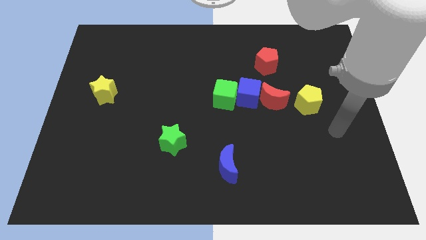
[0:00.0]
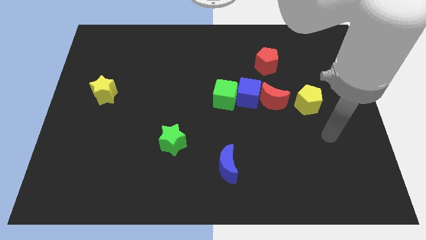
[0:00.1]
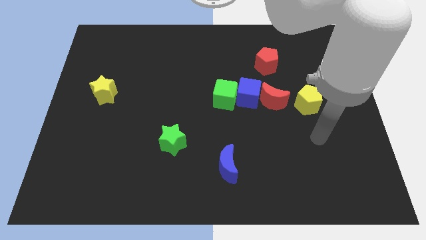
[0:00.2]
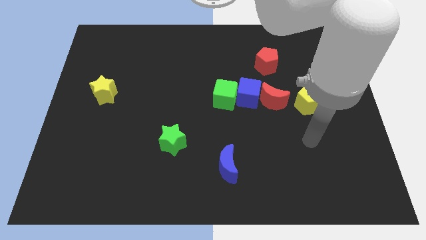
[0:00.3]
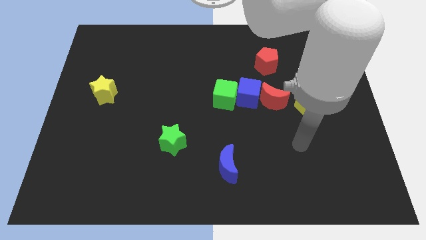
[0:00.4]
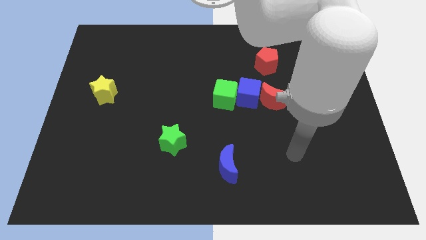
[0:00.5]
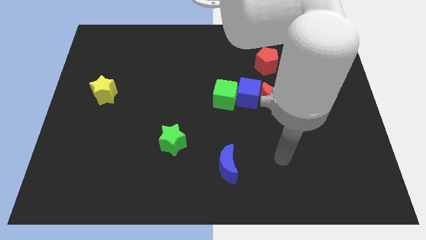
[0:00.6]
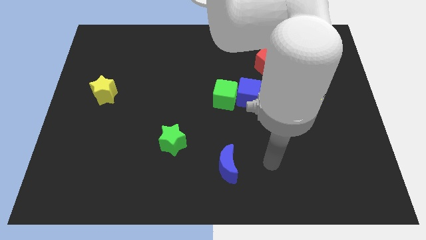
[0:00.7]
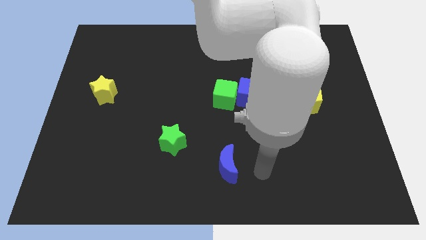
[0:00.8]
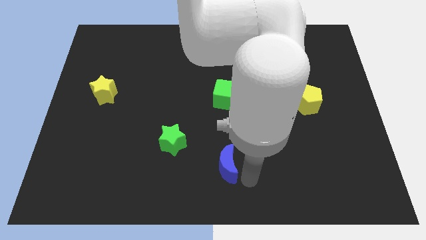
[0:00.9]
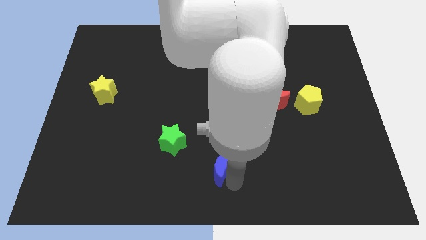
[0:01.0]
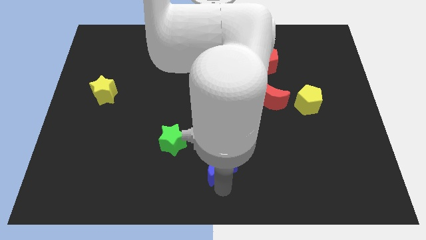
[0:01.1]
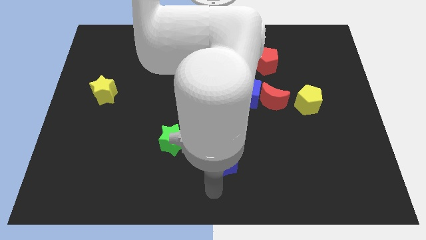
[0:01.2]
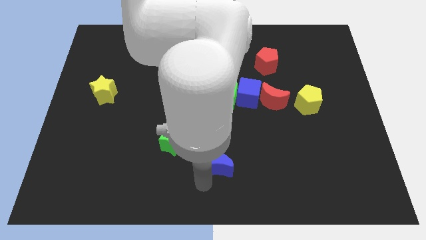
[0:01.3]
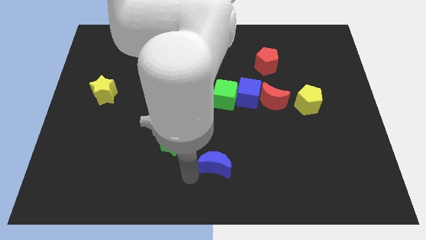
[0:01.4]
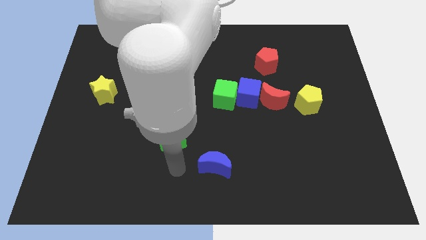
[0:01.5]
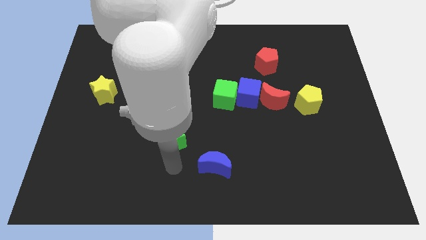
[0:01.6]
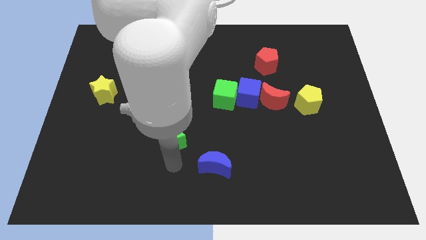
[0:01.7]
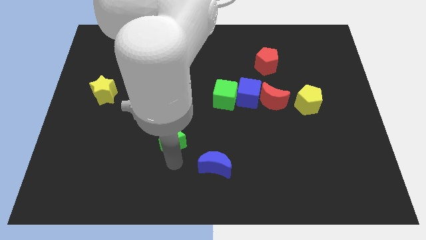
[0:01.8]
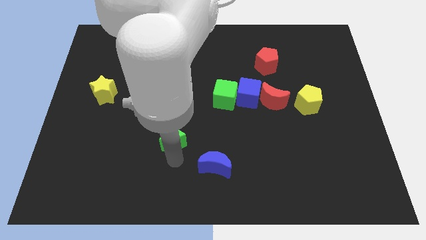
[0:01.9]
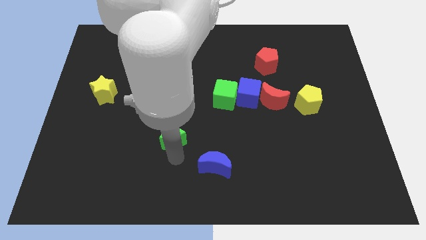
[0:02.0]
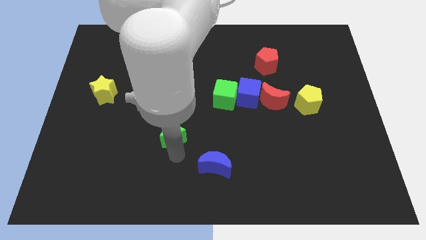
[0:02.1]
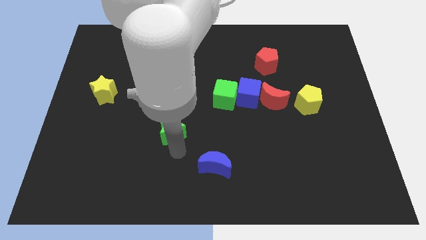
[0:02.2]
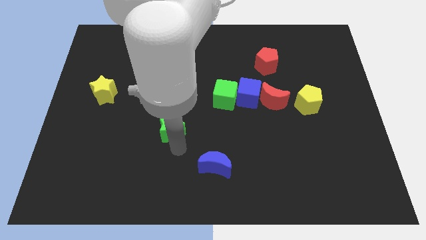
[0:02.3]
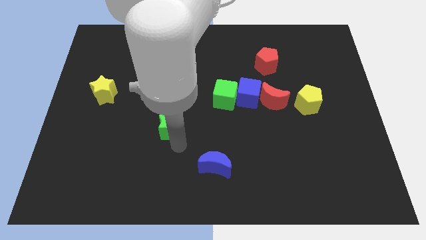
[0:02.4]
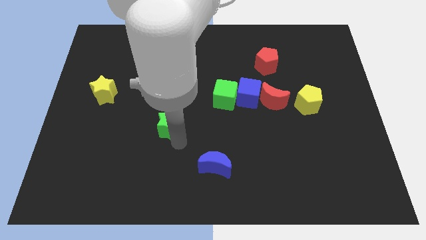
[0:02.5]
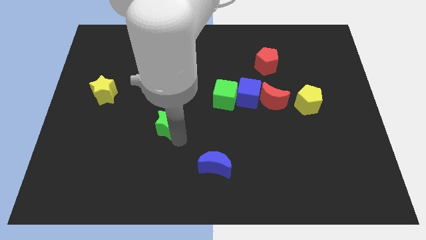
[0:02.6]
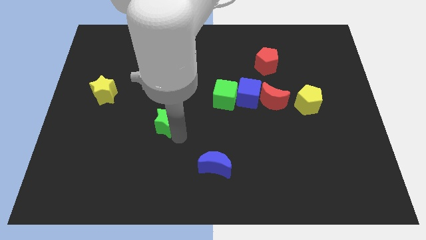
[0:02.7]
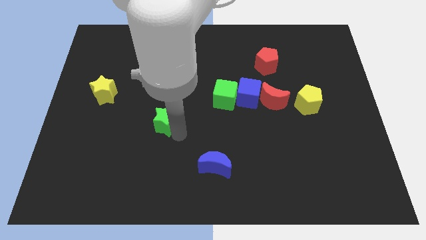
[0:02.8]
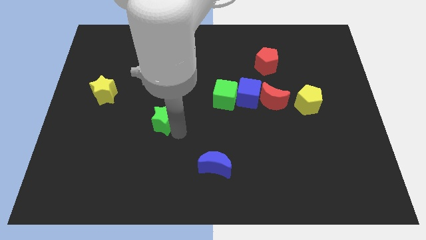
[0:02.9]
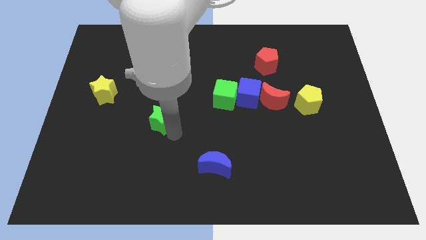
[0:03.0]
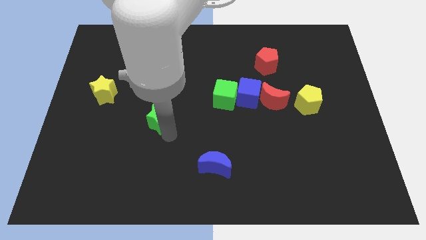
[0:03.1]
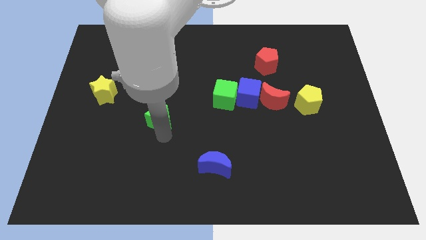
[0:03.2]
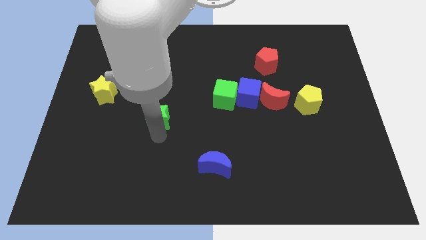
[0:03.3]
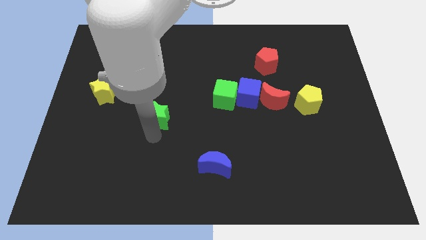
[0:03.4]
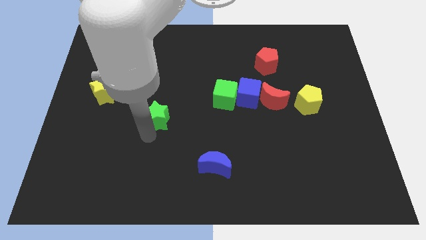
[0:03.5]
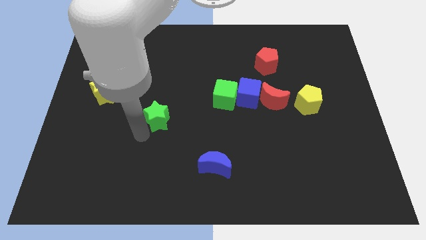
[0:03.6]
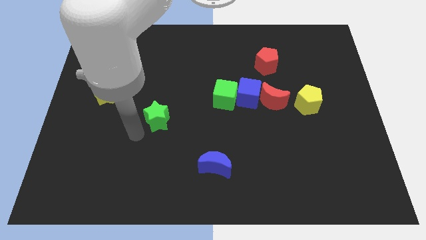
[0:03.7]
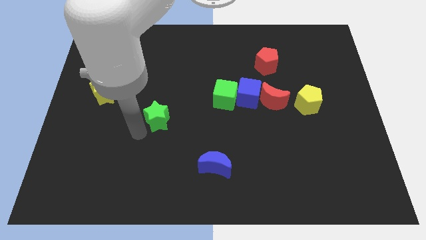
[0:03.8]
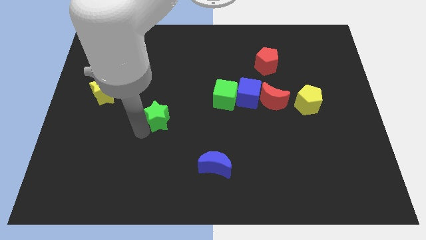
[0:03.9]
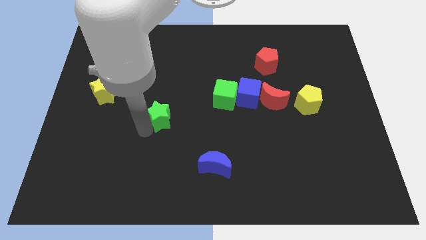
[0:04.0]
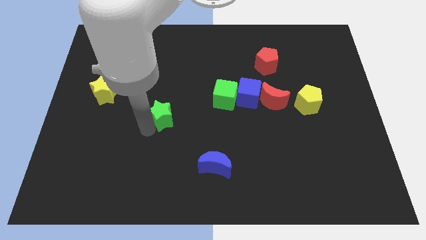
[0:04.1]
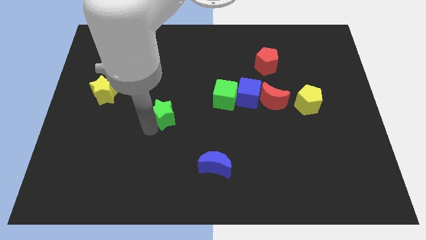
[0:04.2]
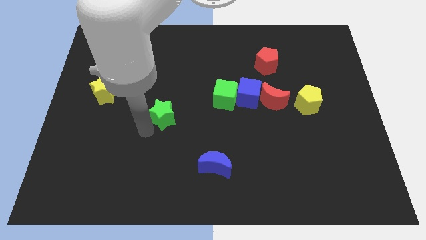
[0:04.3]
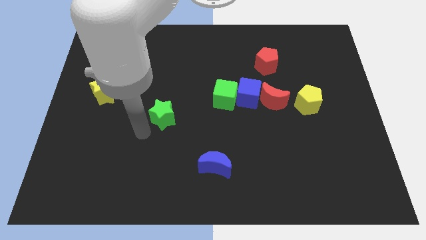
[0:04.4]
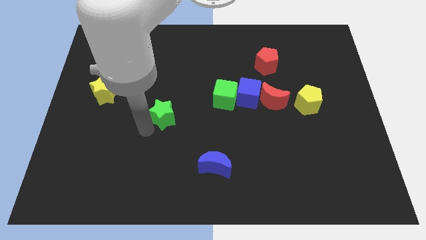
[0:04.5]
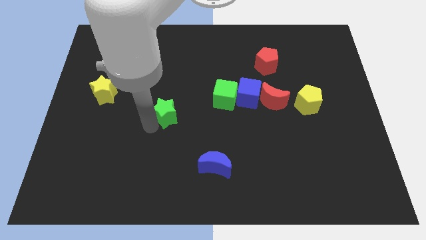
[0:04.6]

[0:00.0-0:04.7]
slightly move the green star up

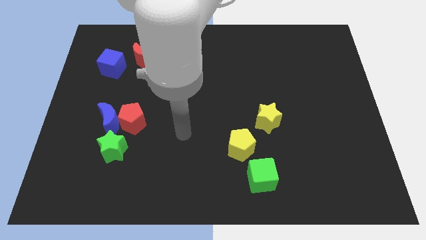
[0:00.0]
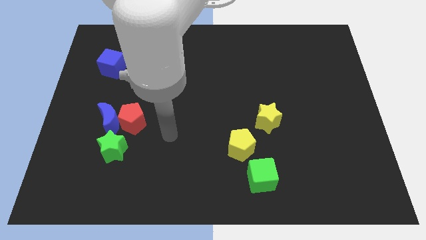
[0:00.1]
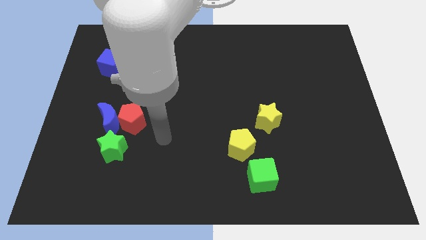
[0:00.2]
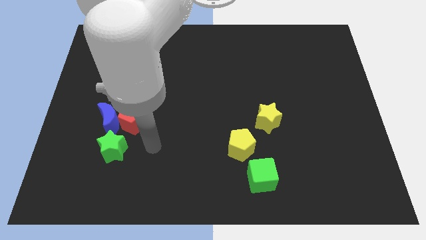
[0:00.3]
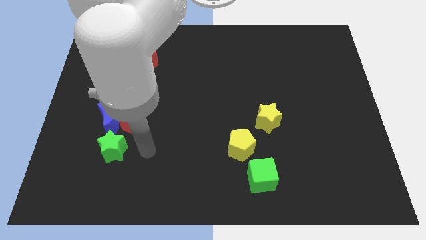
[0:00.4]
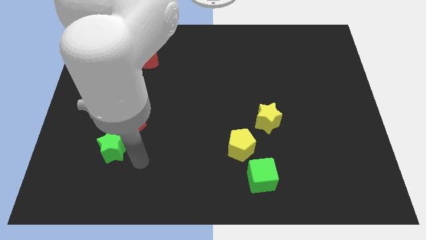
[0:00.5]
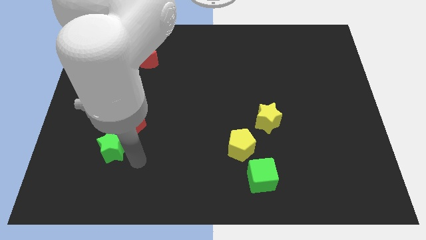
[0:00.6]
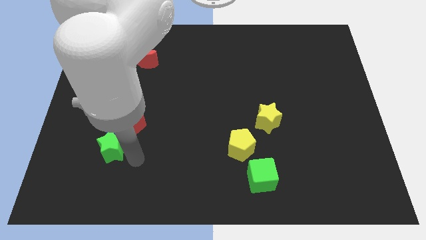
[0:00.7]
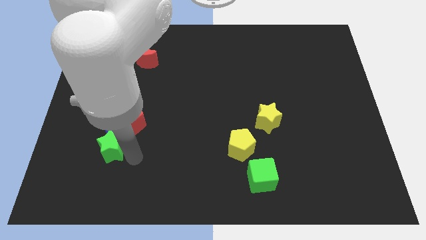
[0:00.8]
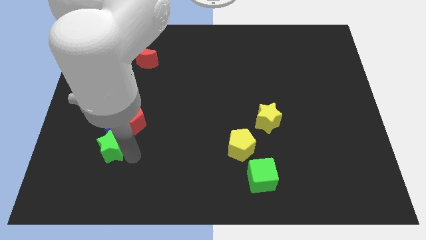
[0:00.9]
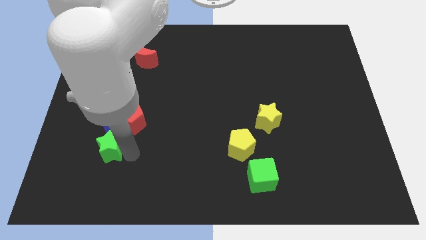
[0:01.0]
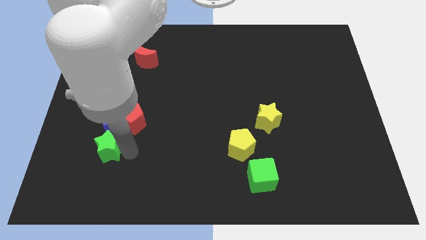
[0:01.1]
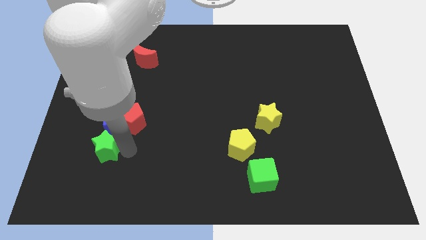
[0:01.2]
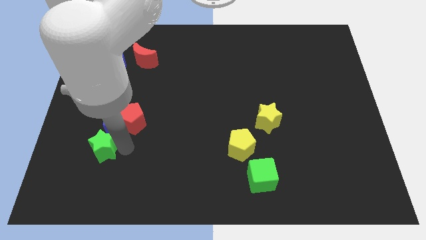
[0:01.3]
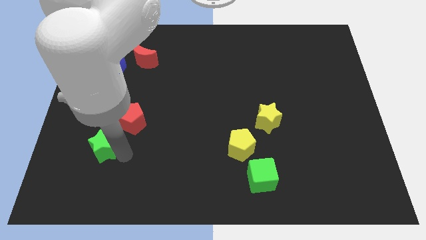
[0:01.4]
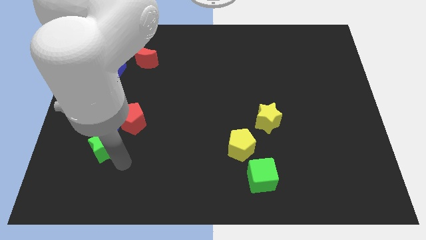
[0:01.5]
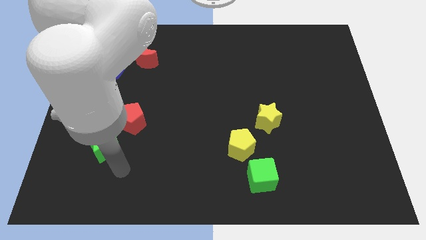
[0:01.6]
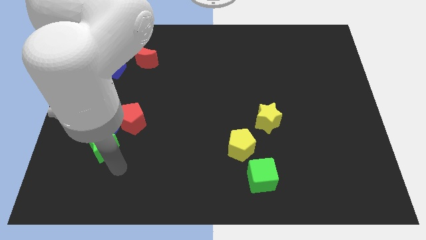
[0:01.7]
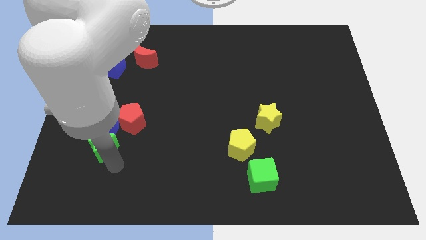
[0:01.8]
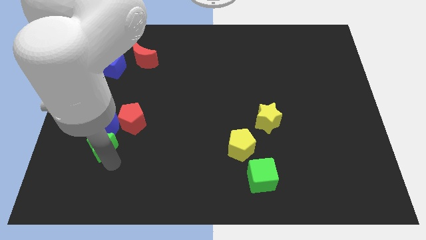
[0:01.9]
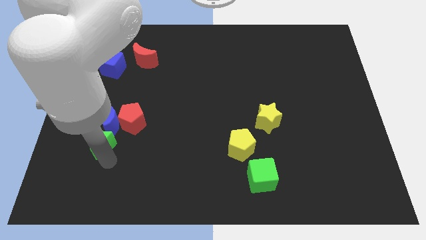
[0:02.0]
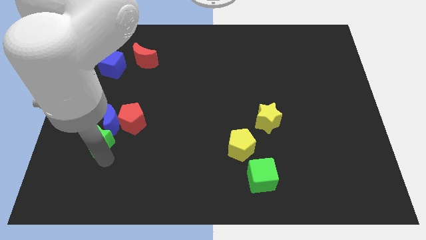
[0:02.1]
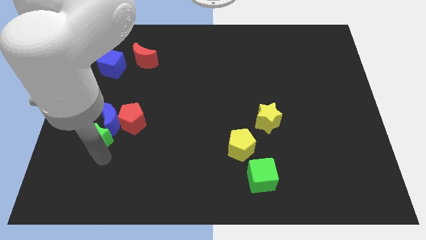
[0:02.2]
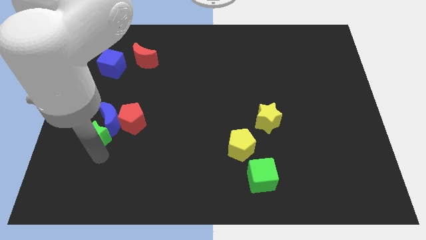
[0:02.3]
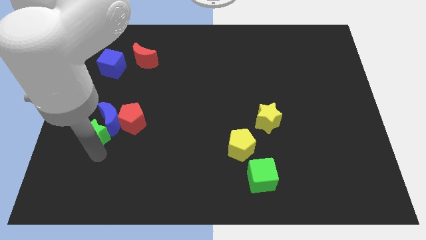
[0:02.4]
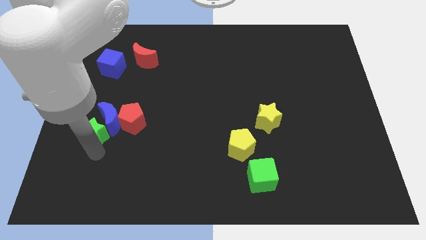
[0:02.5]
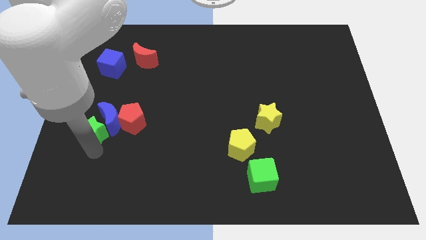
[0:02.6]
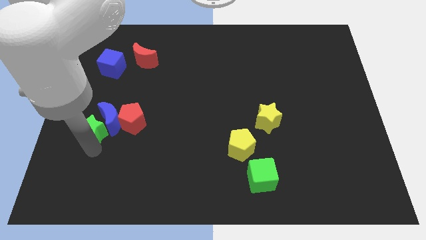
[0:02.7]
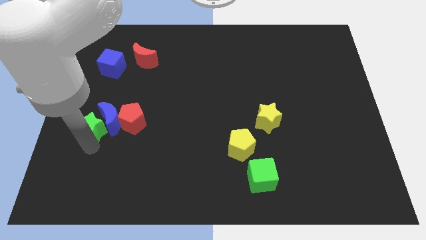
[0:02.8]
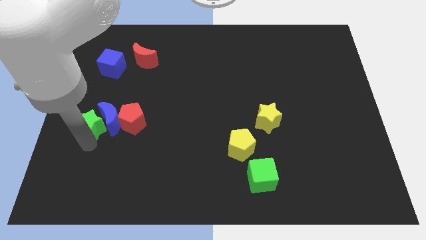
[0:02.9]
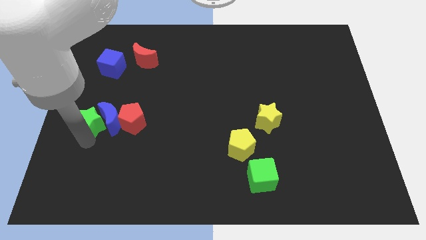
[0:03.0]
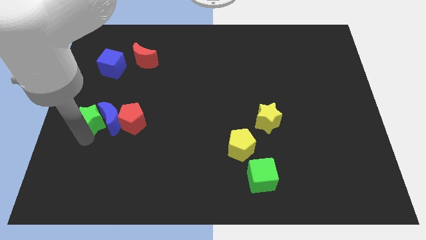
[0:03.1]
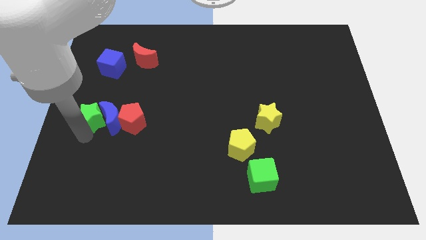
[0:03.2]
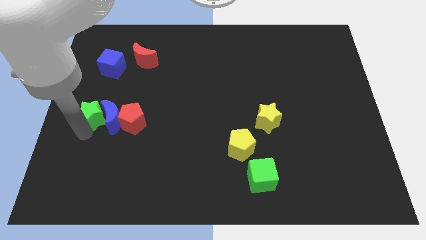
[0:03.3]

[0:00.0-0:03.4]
move the green star upwards slightly
